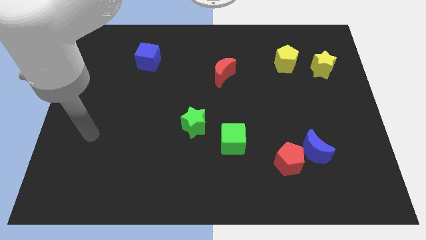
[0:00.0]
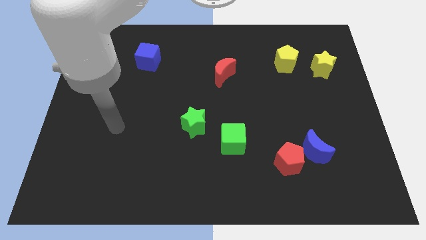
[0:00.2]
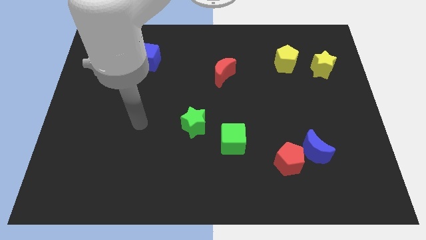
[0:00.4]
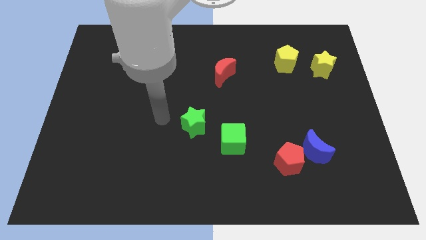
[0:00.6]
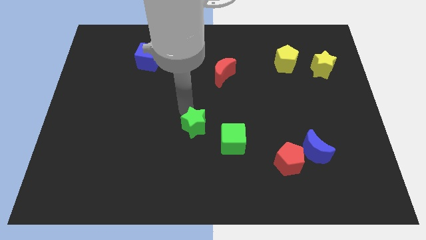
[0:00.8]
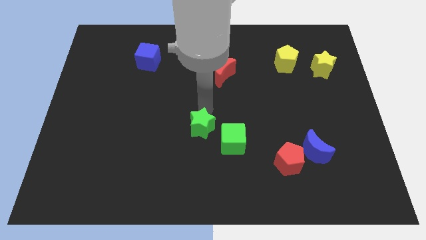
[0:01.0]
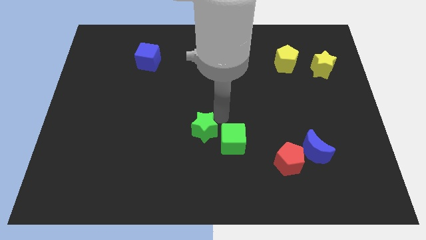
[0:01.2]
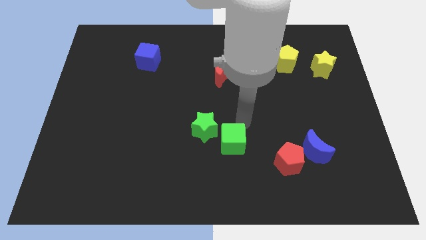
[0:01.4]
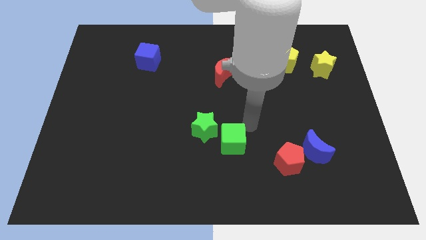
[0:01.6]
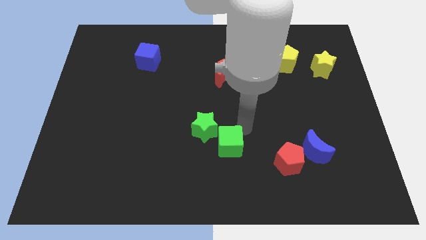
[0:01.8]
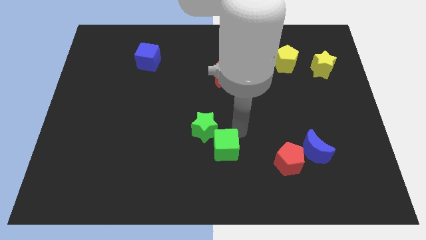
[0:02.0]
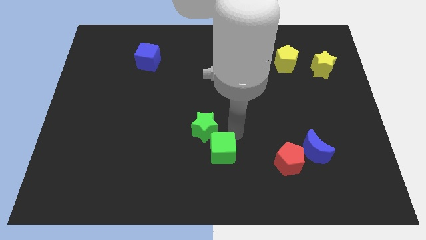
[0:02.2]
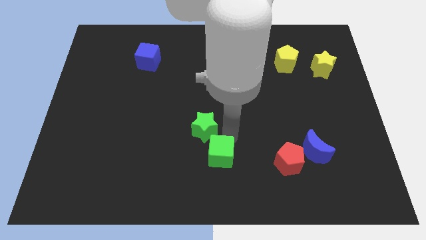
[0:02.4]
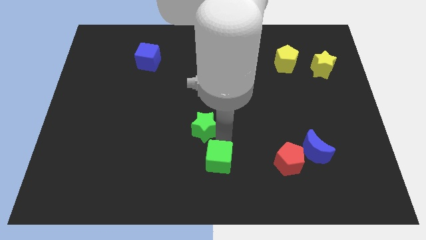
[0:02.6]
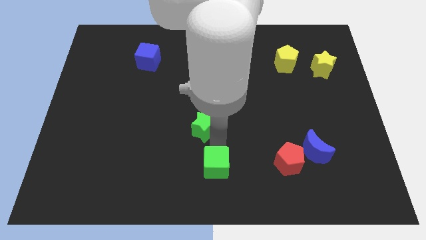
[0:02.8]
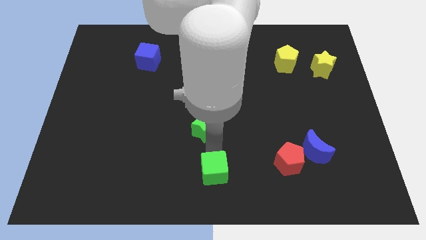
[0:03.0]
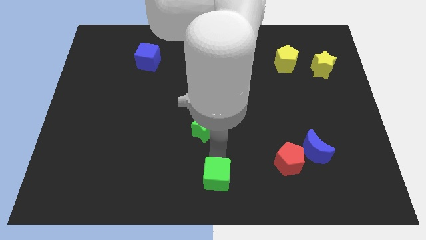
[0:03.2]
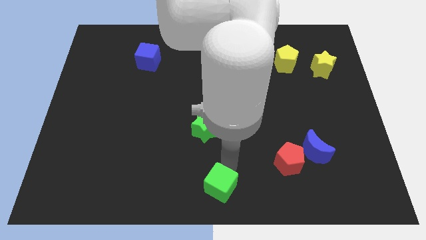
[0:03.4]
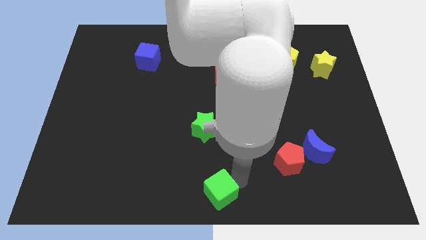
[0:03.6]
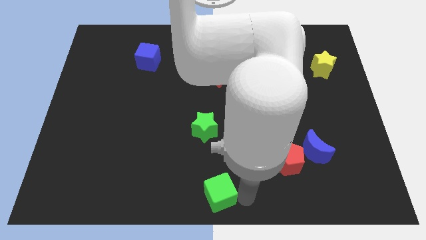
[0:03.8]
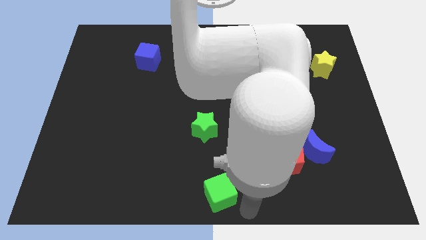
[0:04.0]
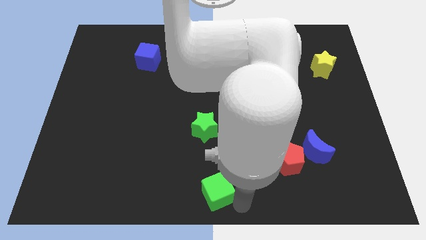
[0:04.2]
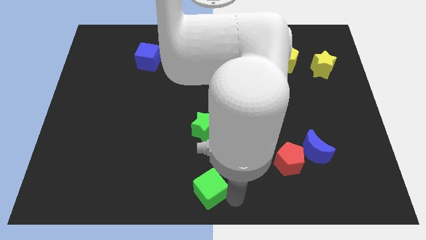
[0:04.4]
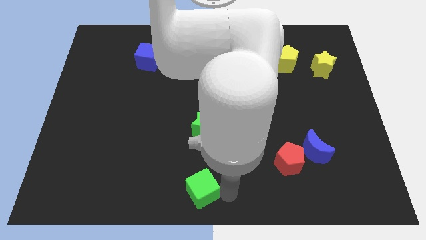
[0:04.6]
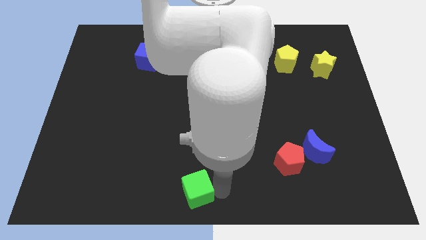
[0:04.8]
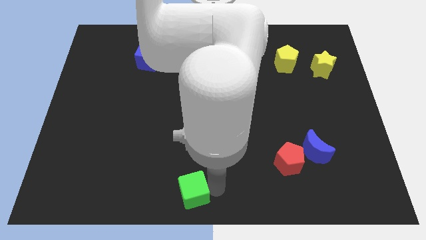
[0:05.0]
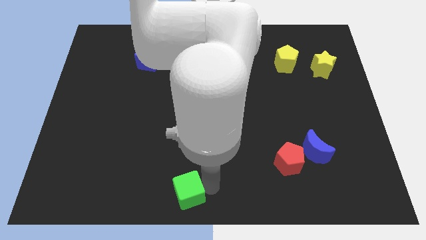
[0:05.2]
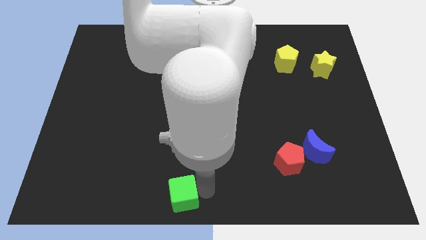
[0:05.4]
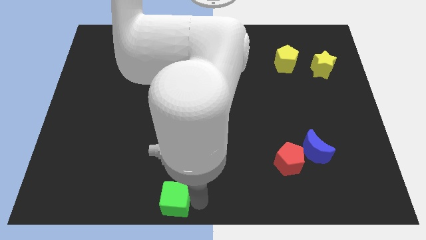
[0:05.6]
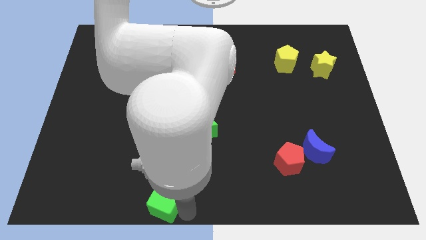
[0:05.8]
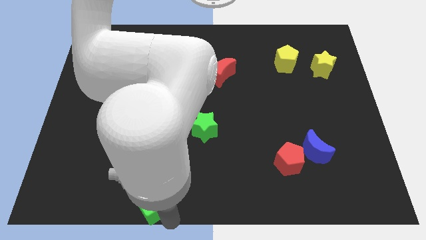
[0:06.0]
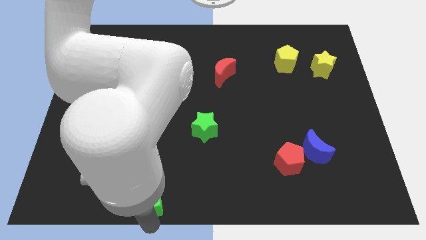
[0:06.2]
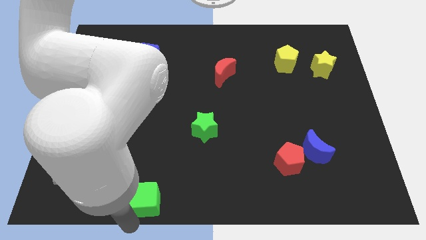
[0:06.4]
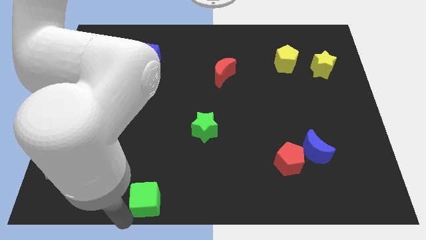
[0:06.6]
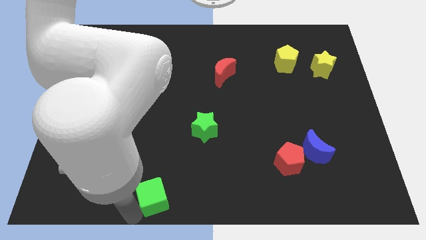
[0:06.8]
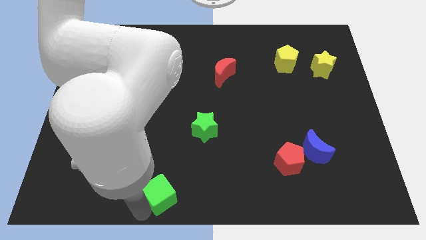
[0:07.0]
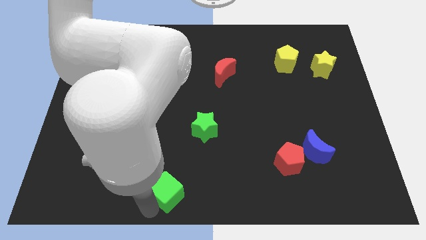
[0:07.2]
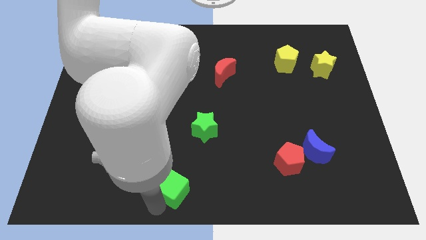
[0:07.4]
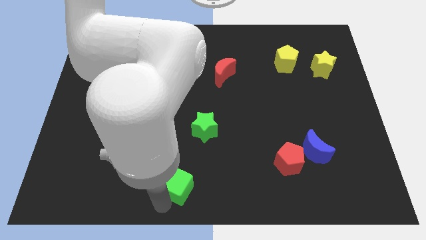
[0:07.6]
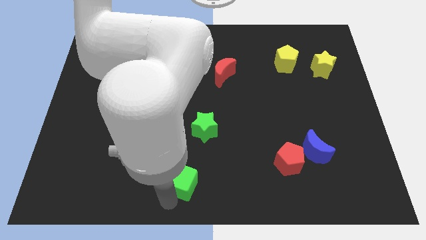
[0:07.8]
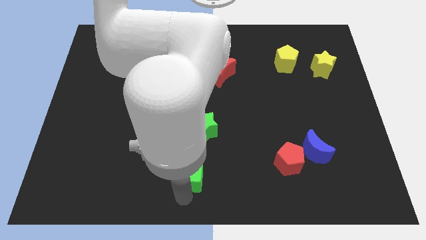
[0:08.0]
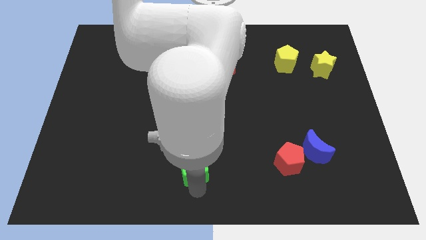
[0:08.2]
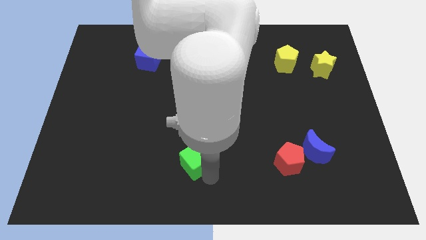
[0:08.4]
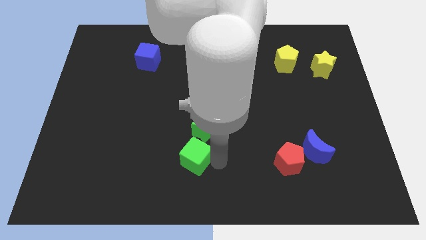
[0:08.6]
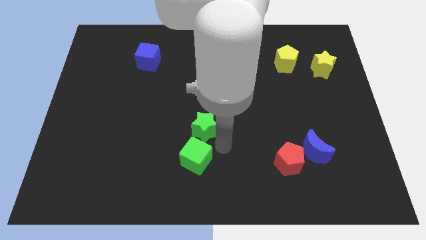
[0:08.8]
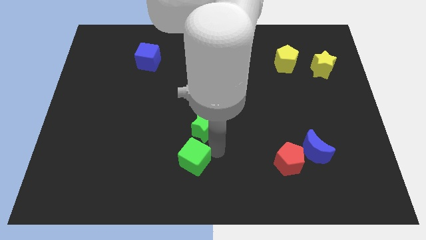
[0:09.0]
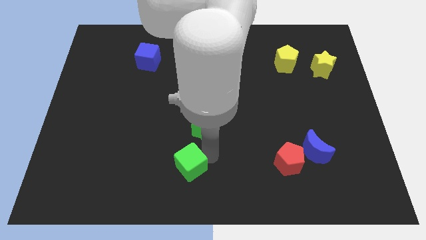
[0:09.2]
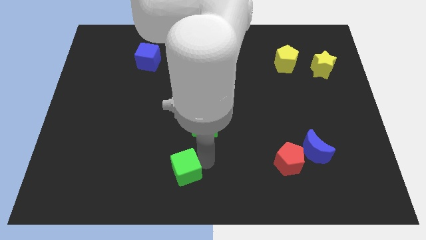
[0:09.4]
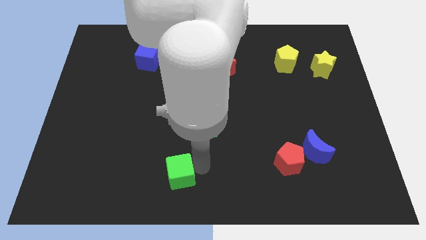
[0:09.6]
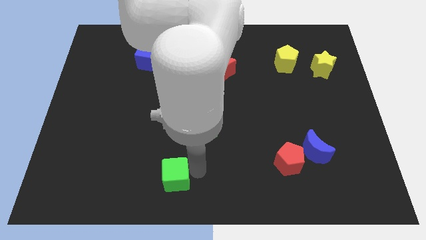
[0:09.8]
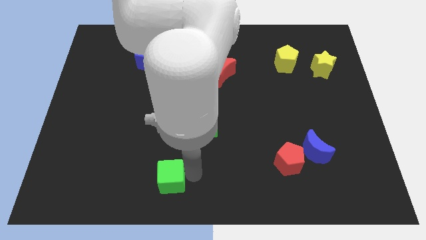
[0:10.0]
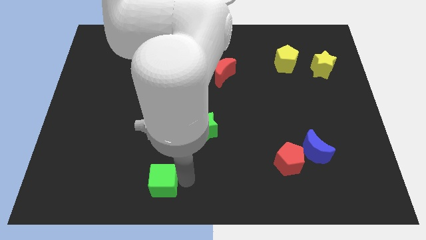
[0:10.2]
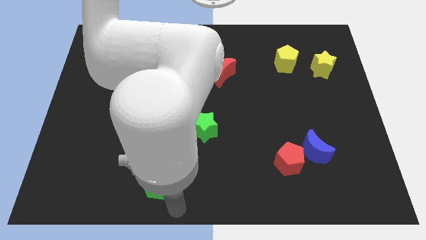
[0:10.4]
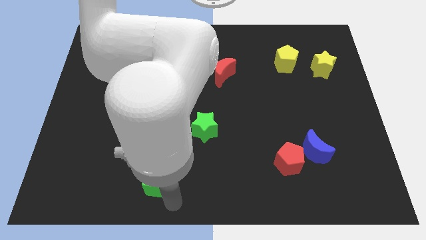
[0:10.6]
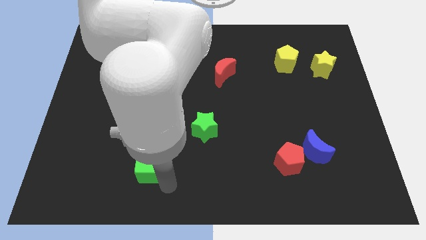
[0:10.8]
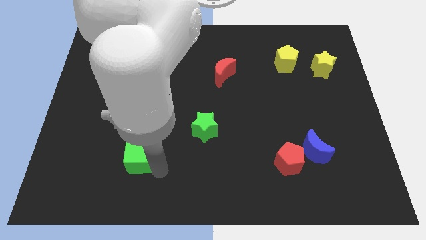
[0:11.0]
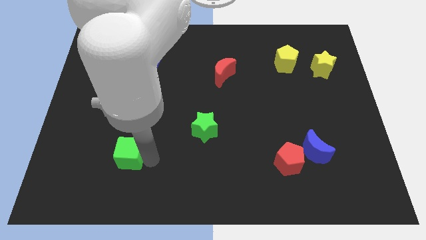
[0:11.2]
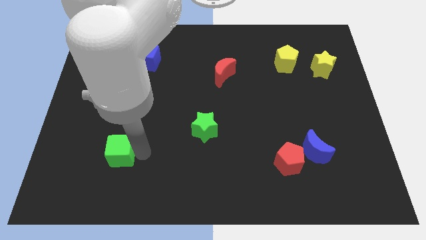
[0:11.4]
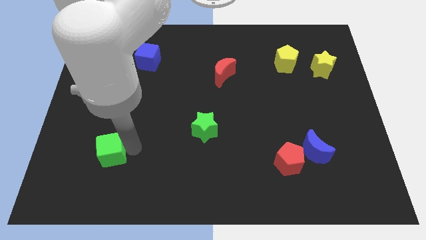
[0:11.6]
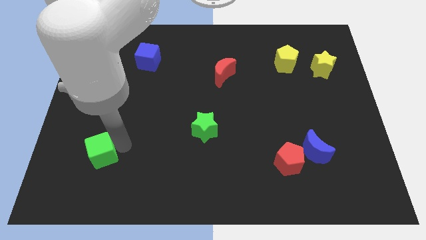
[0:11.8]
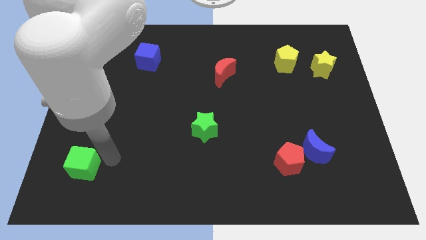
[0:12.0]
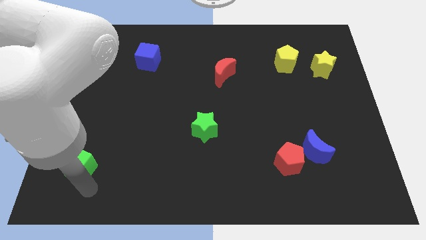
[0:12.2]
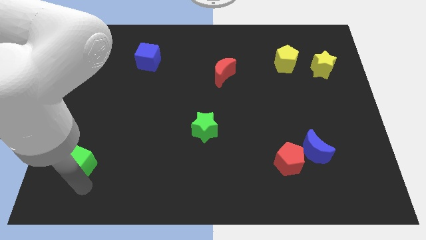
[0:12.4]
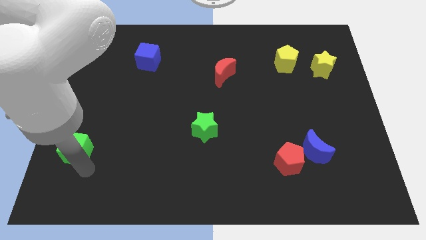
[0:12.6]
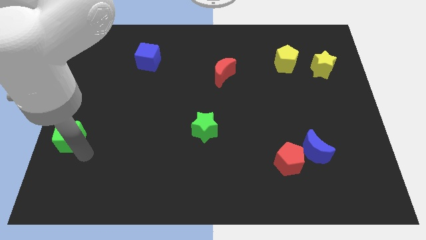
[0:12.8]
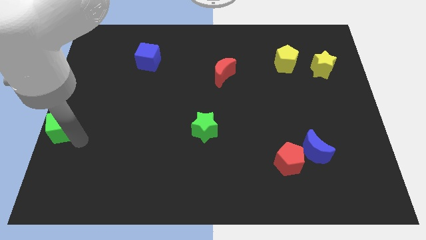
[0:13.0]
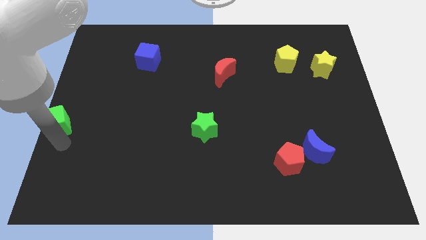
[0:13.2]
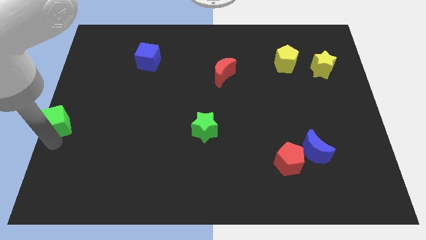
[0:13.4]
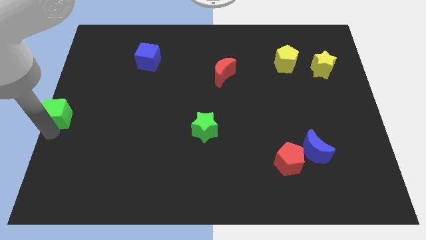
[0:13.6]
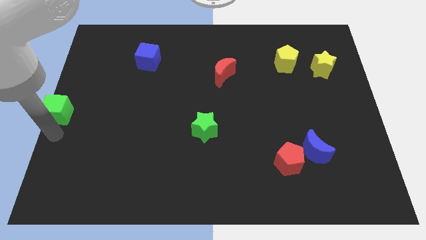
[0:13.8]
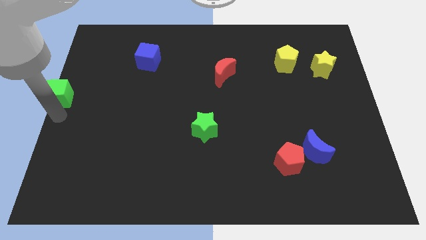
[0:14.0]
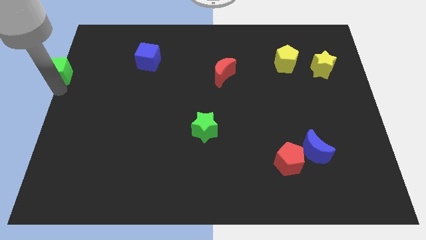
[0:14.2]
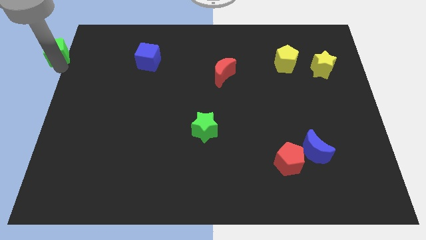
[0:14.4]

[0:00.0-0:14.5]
push the green cube to the top left corner
